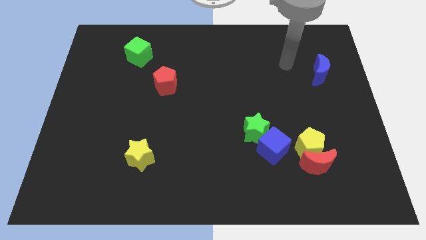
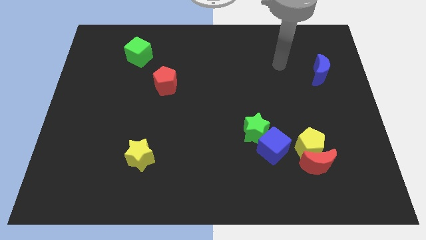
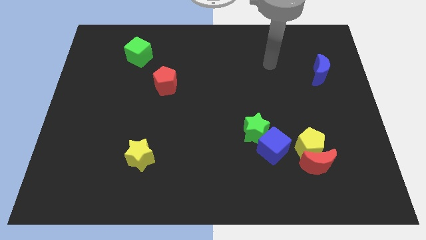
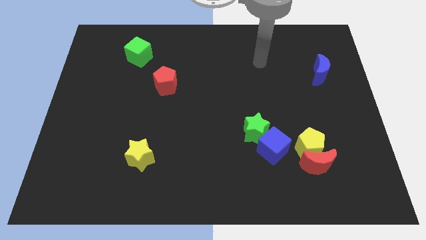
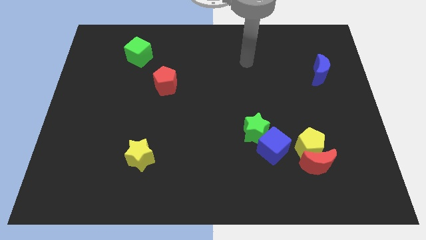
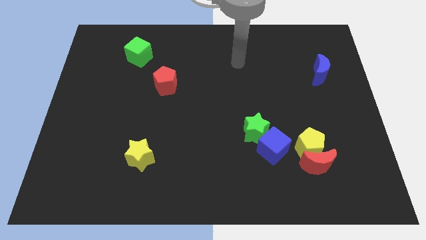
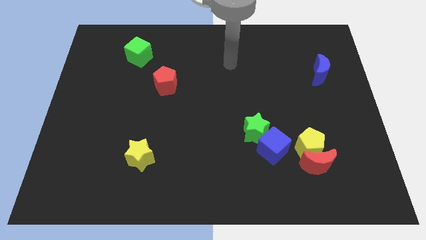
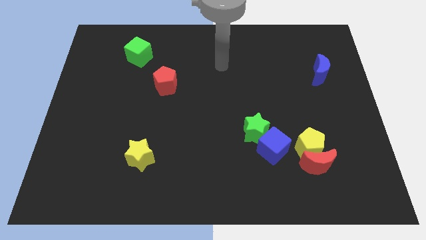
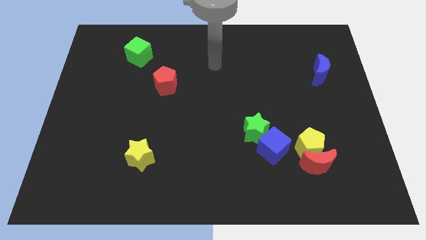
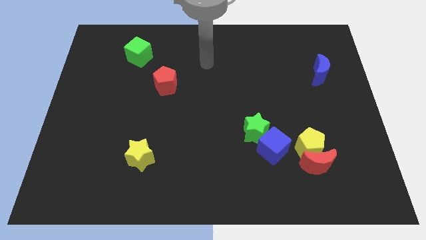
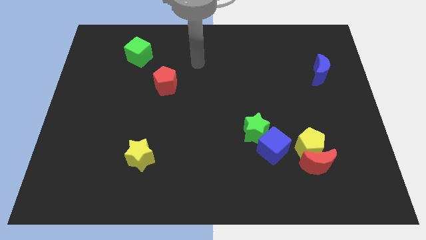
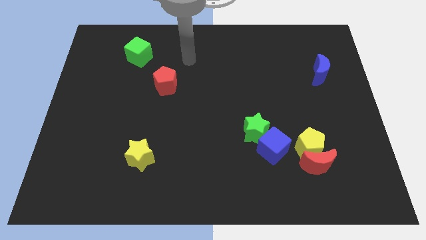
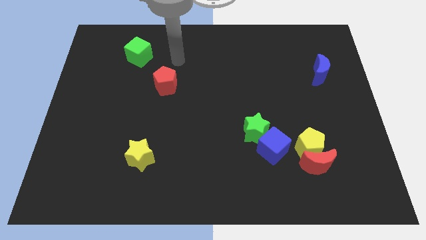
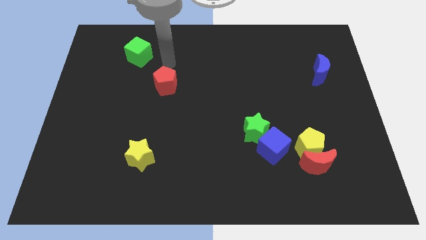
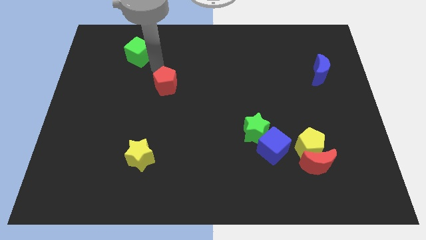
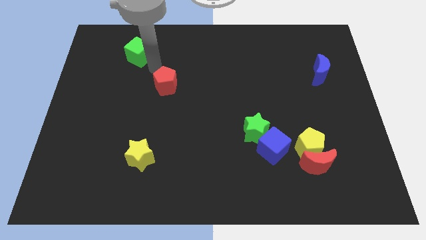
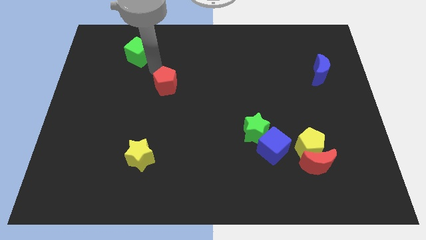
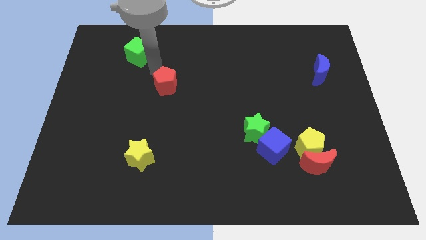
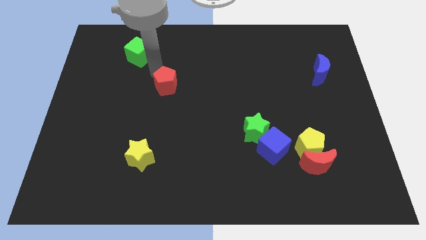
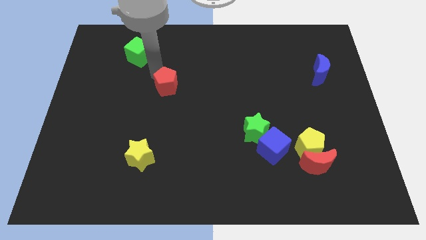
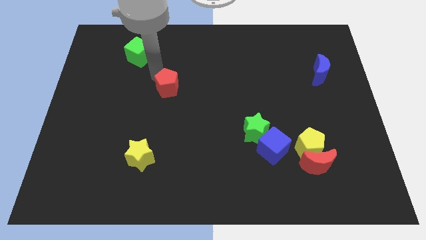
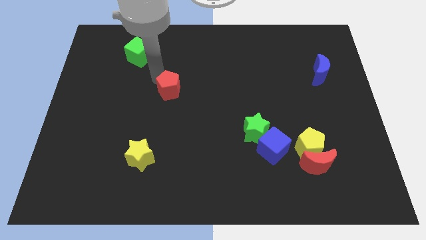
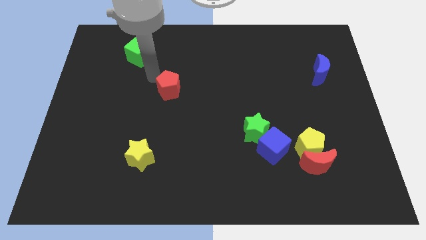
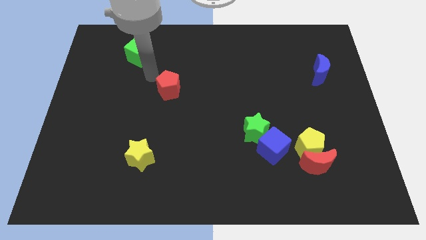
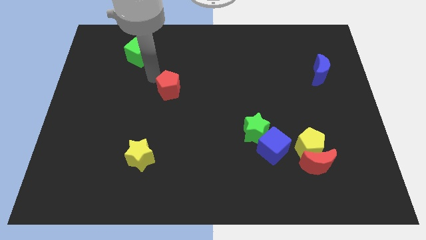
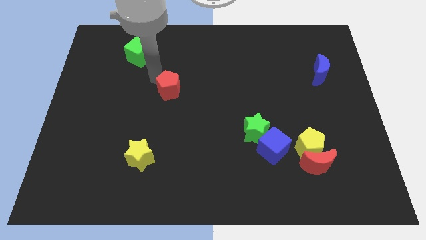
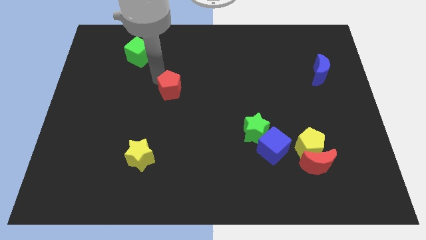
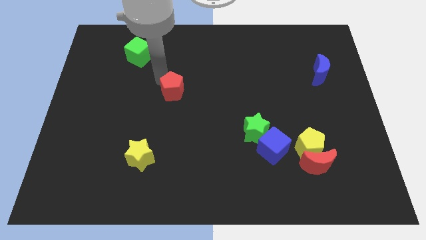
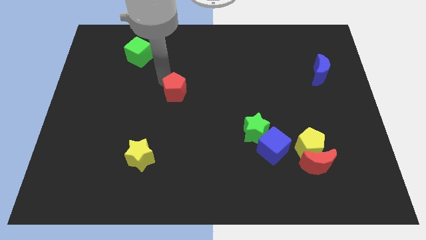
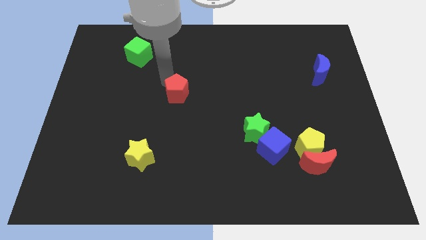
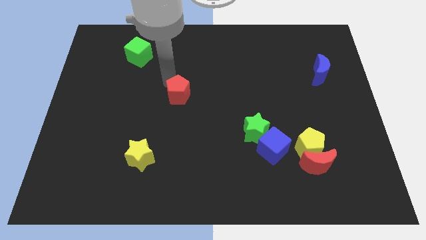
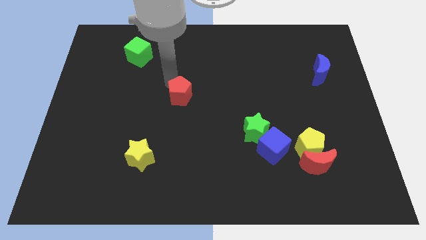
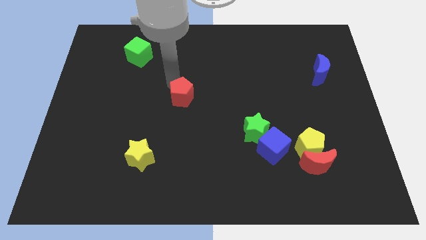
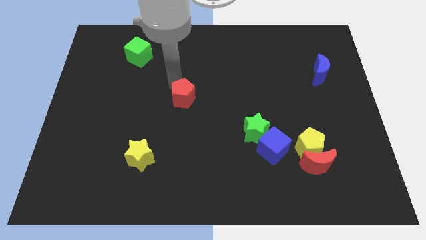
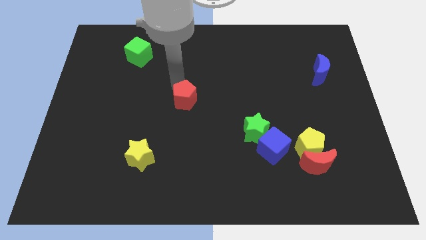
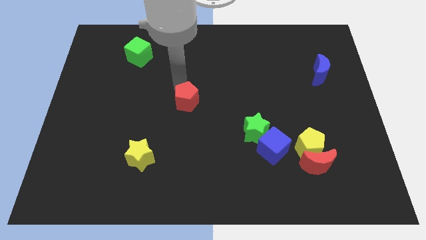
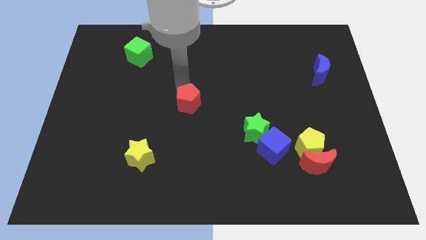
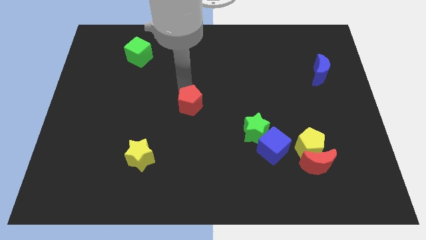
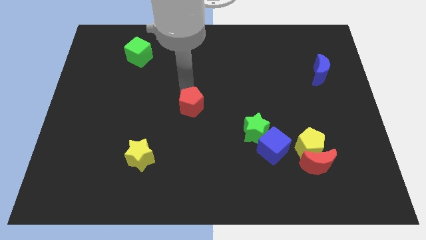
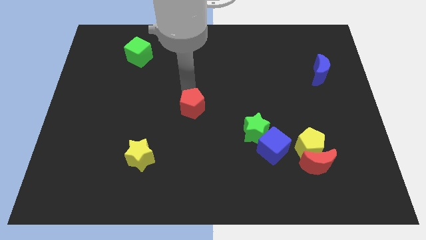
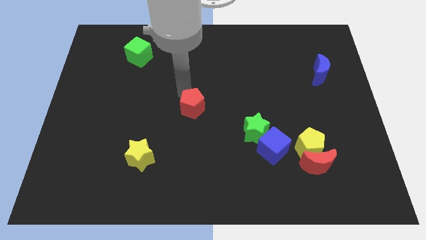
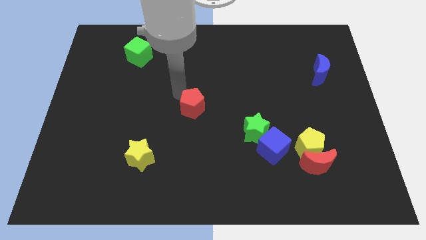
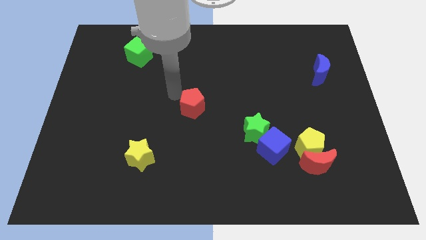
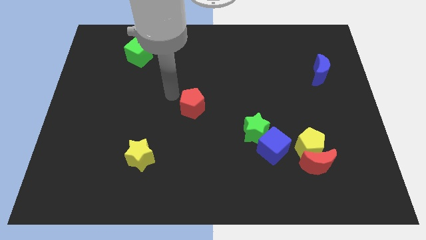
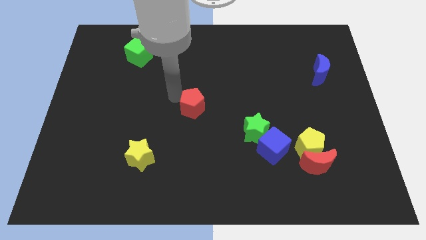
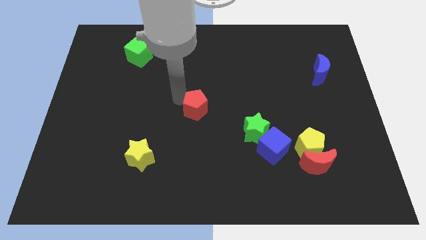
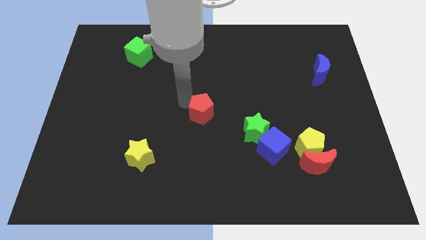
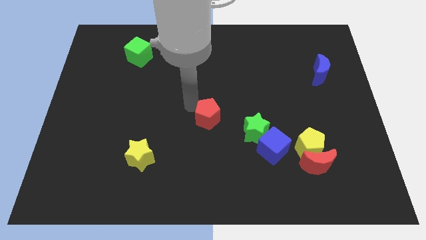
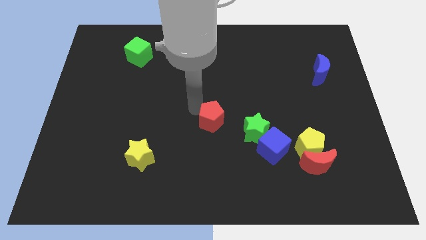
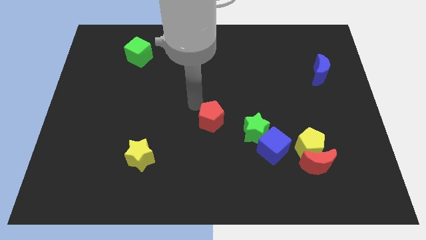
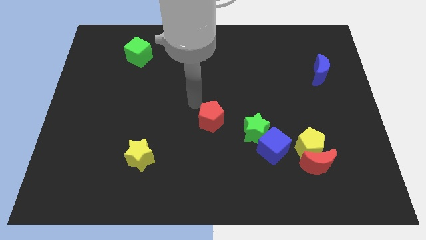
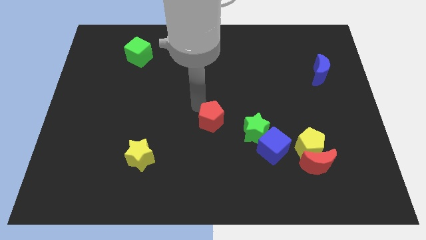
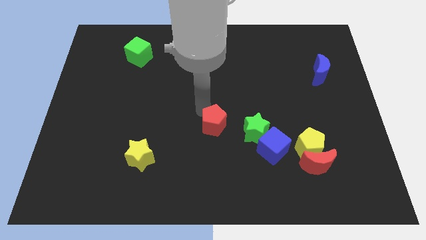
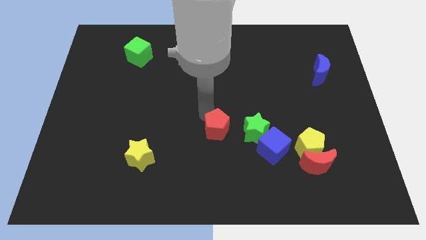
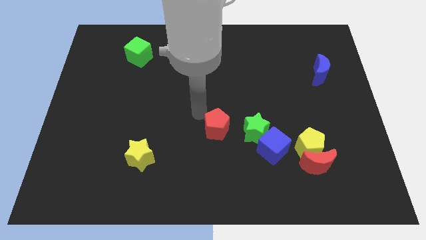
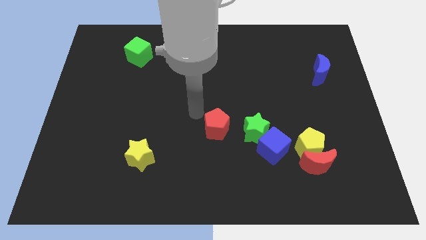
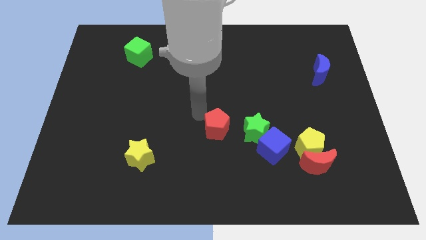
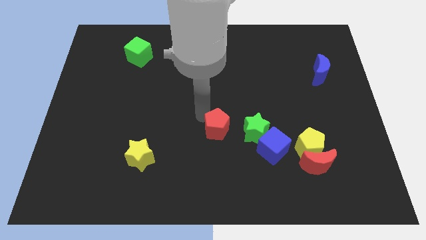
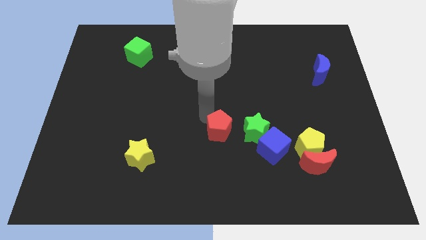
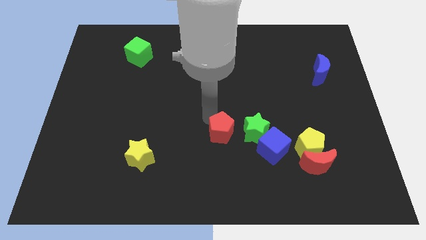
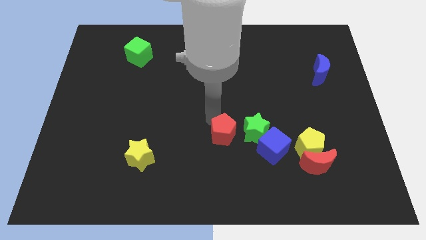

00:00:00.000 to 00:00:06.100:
slide the red pentagon diagonally down and to the right

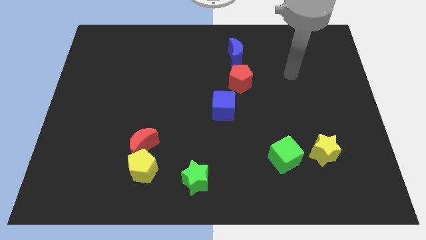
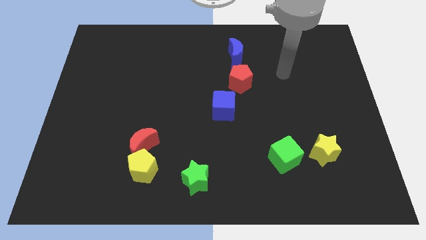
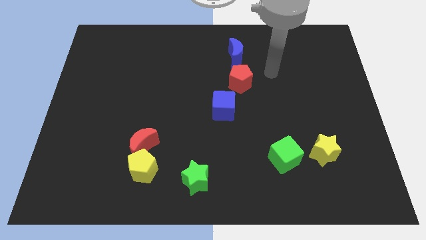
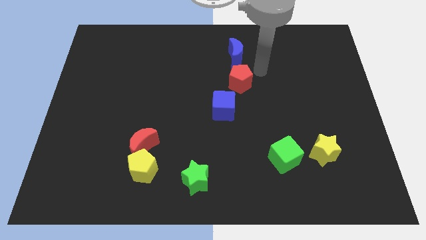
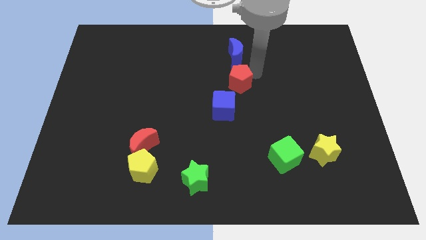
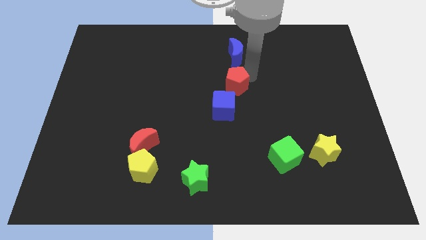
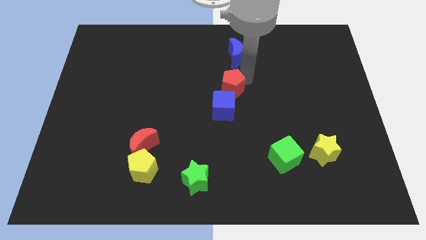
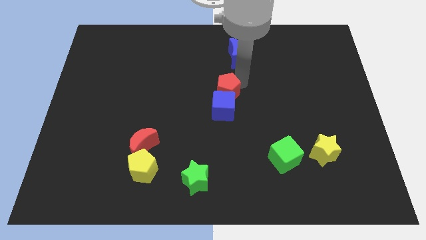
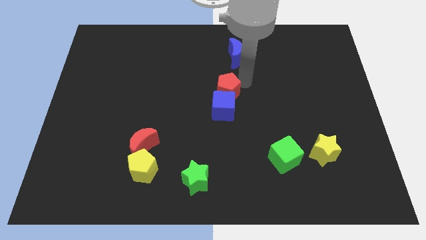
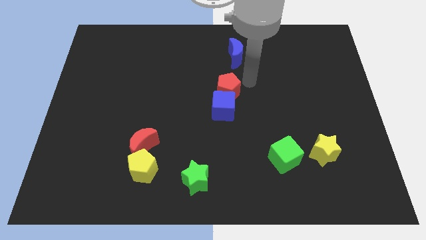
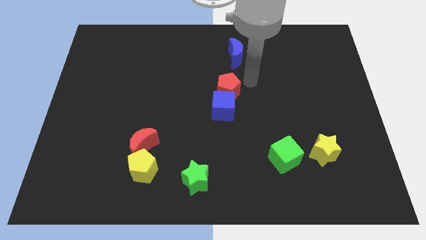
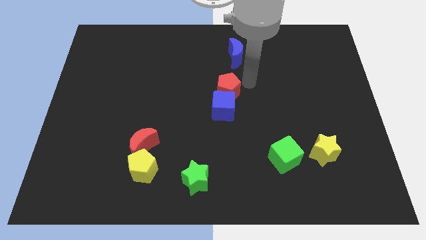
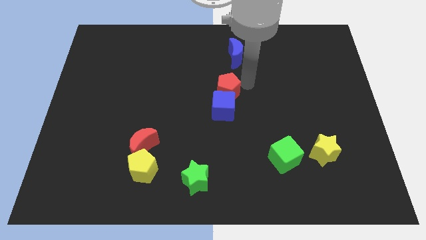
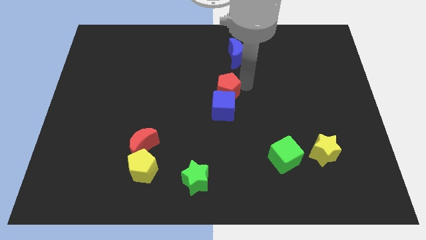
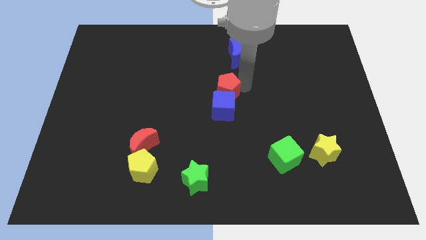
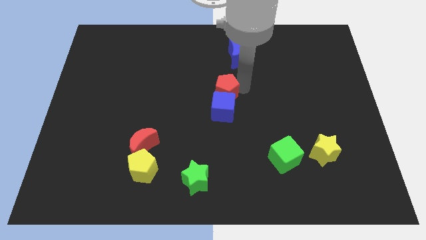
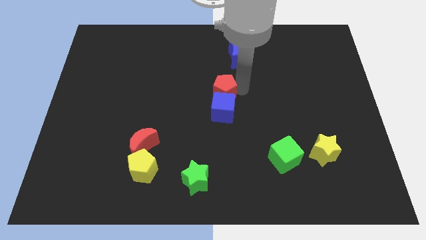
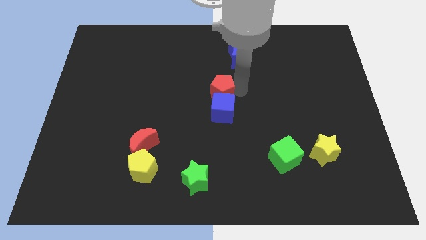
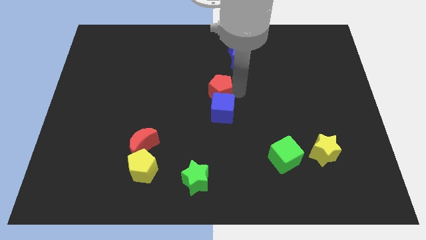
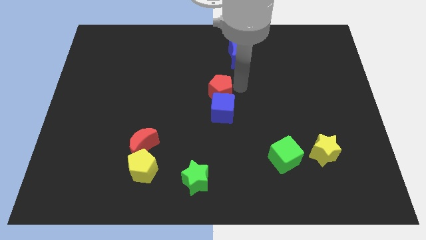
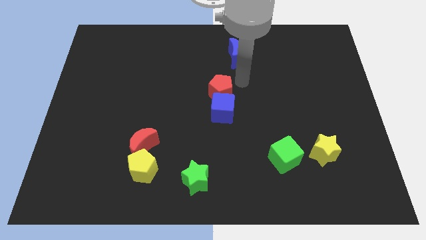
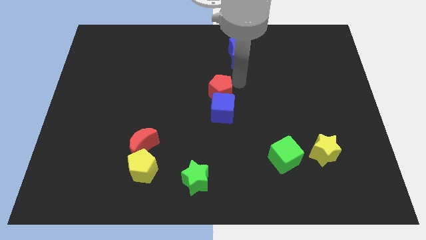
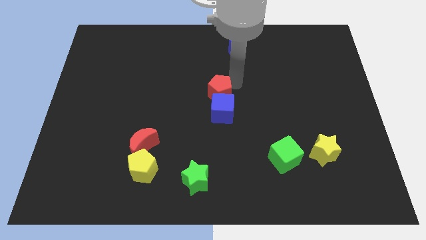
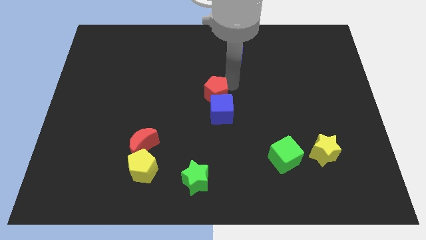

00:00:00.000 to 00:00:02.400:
push the red pentagon a little downwards and then to the left
